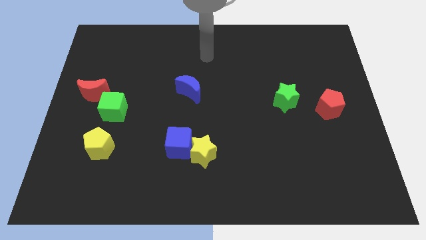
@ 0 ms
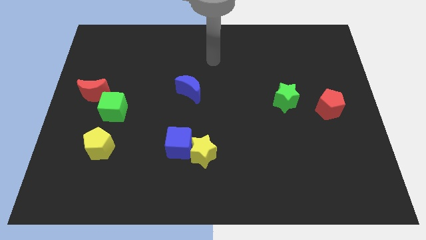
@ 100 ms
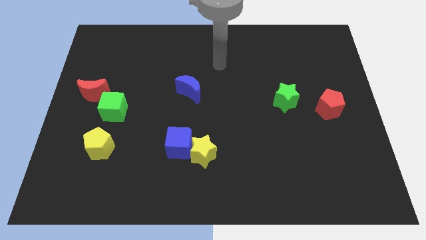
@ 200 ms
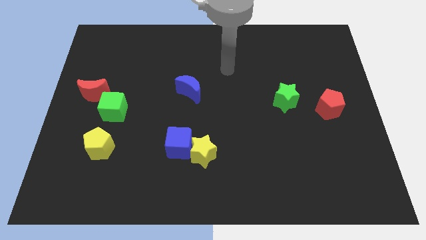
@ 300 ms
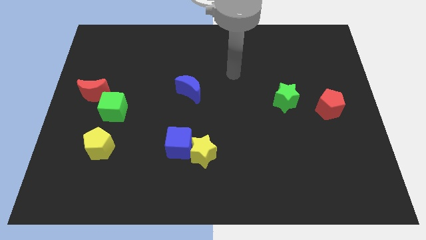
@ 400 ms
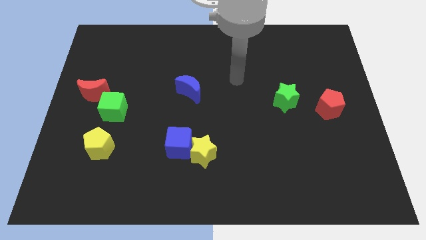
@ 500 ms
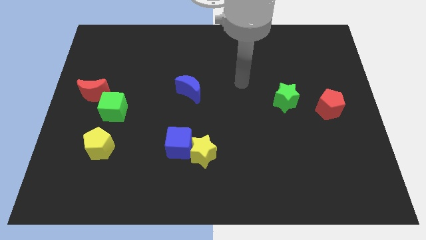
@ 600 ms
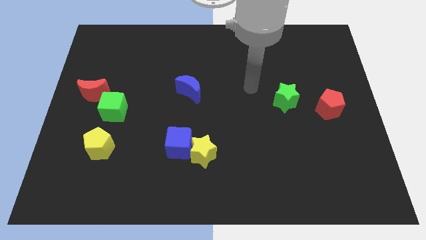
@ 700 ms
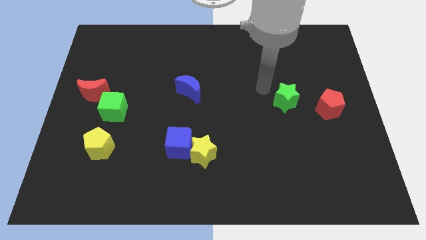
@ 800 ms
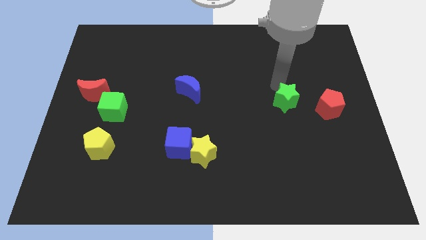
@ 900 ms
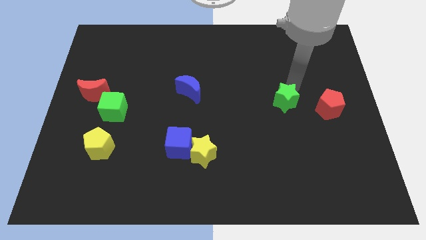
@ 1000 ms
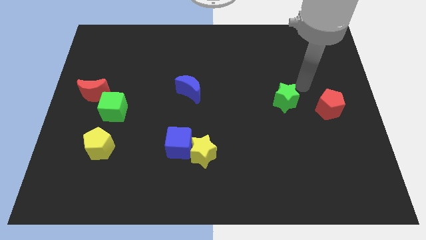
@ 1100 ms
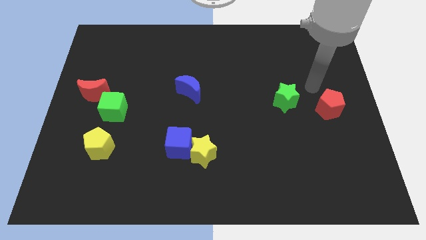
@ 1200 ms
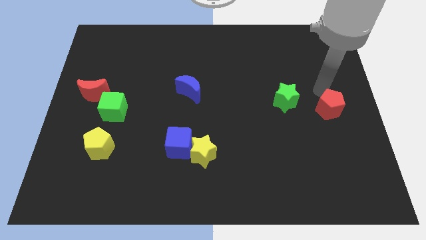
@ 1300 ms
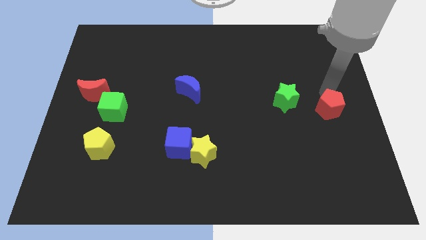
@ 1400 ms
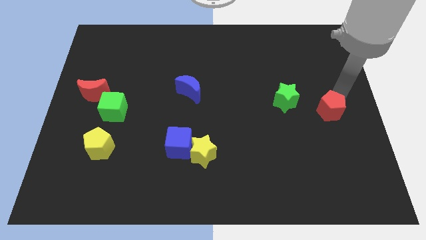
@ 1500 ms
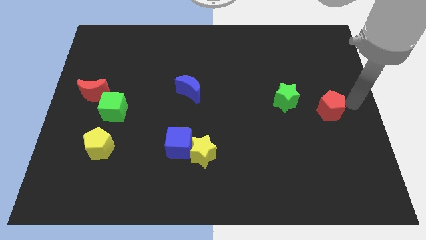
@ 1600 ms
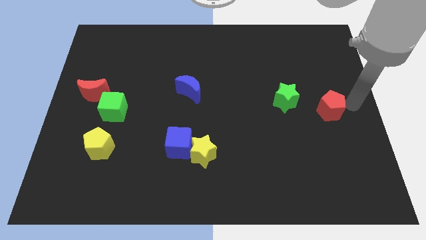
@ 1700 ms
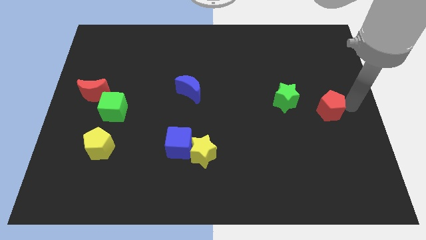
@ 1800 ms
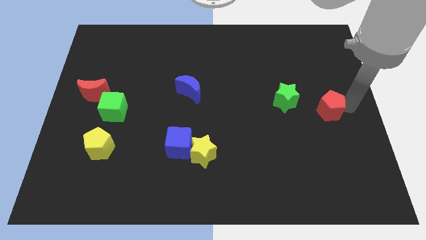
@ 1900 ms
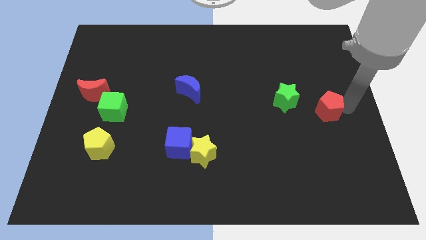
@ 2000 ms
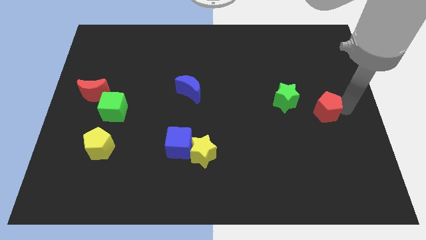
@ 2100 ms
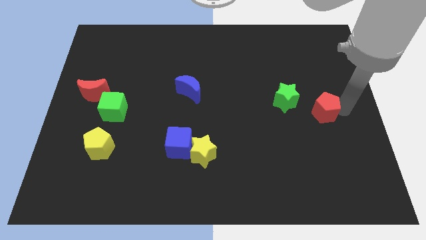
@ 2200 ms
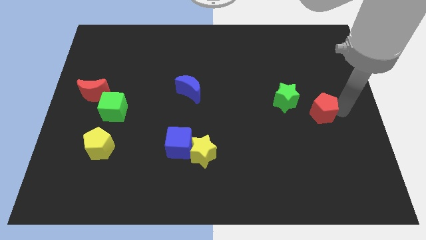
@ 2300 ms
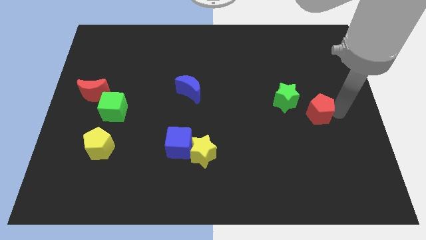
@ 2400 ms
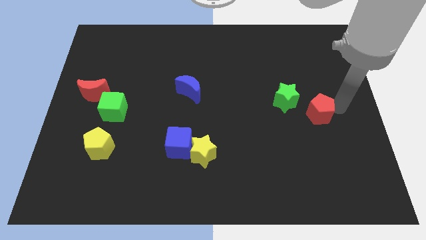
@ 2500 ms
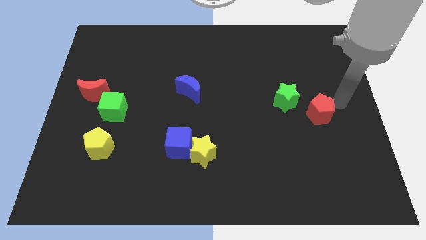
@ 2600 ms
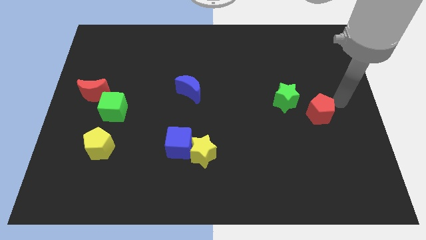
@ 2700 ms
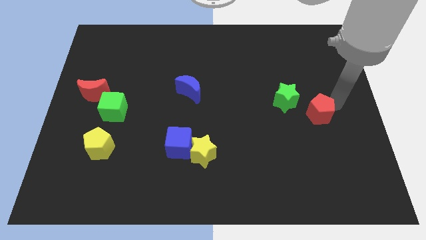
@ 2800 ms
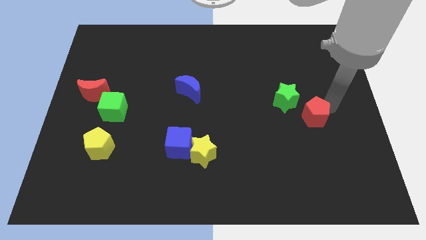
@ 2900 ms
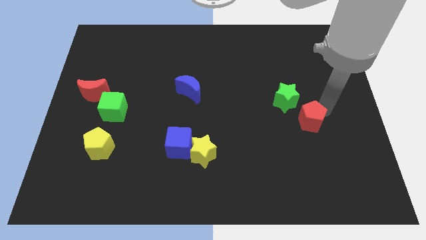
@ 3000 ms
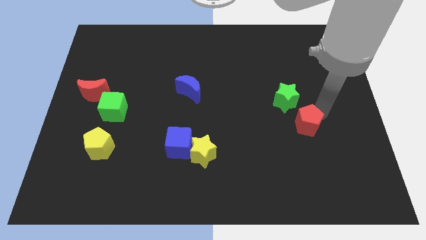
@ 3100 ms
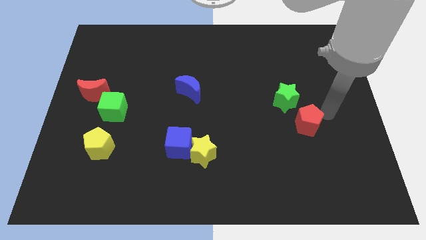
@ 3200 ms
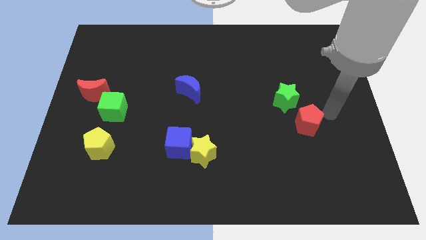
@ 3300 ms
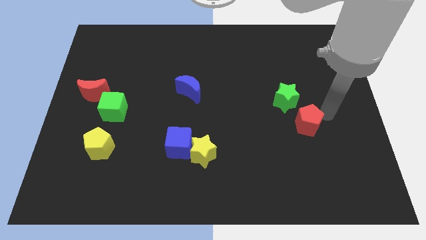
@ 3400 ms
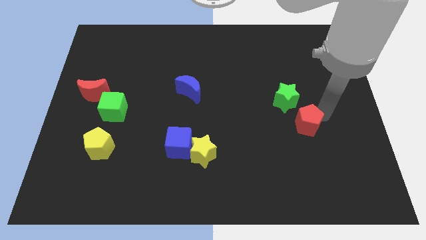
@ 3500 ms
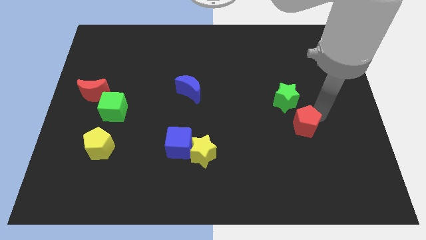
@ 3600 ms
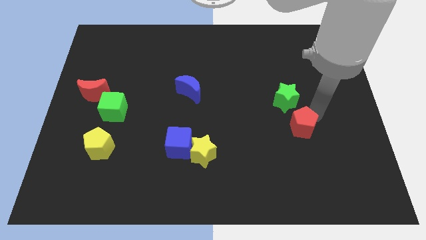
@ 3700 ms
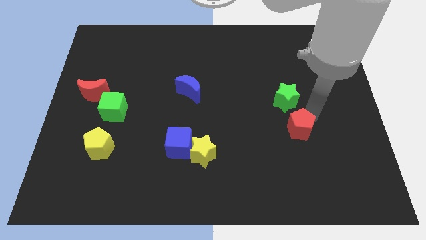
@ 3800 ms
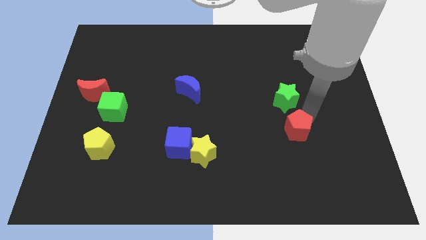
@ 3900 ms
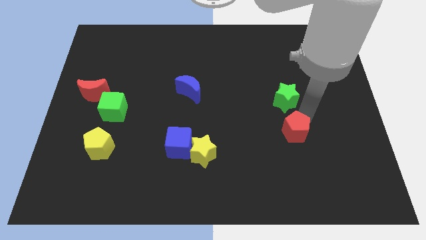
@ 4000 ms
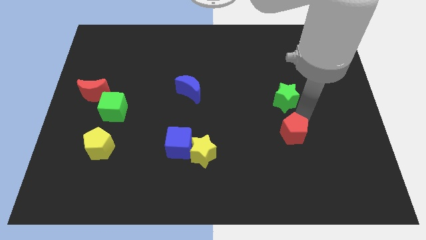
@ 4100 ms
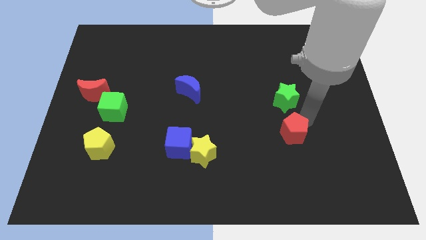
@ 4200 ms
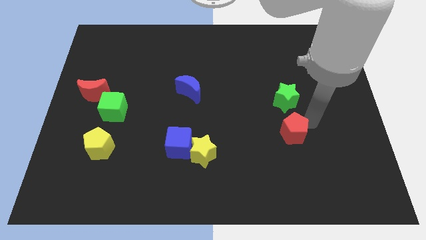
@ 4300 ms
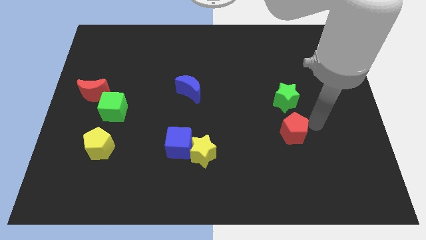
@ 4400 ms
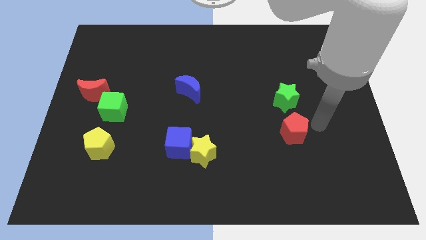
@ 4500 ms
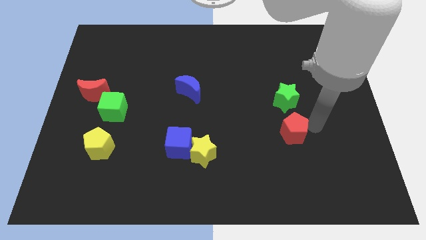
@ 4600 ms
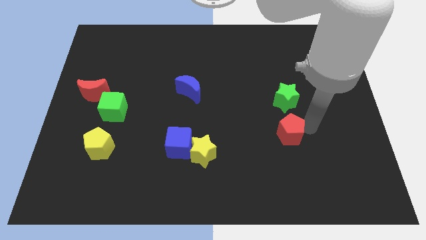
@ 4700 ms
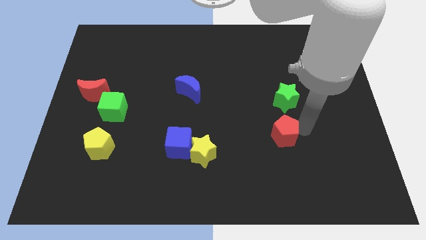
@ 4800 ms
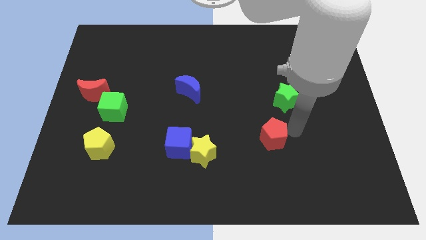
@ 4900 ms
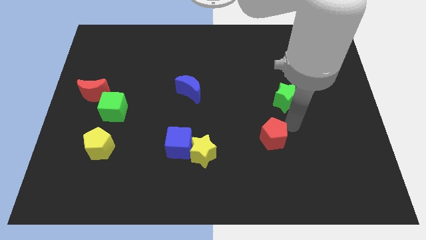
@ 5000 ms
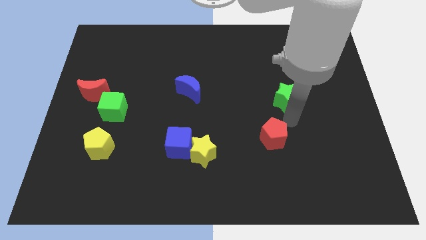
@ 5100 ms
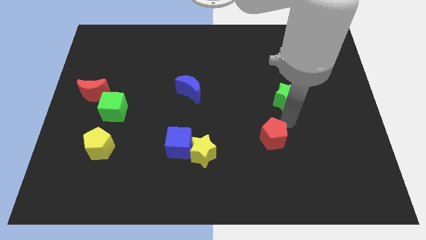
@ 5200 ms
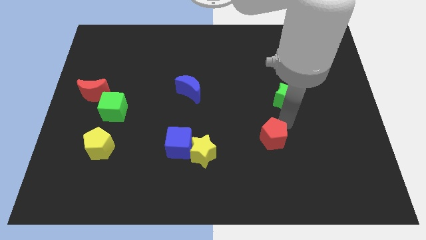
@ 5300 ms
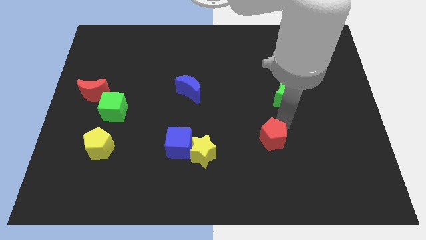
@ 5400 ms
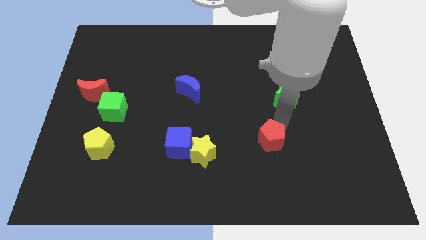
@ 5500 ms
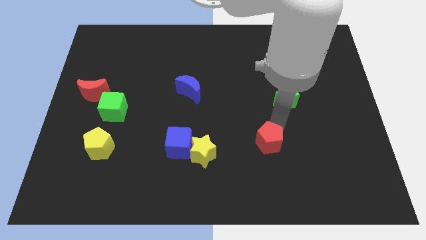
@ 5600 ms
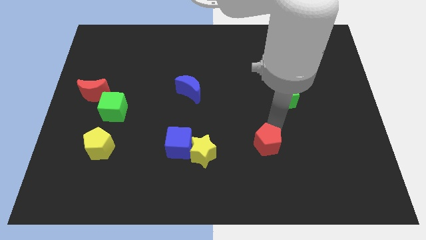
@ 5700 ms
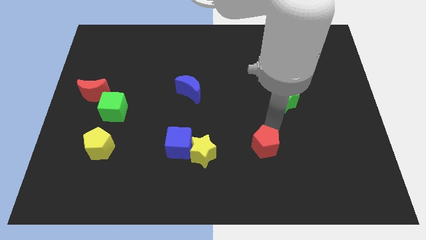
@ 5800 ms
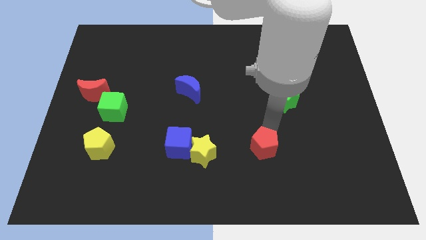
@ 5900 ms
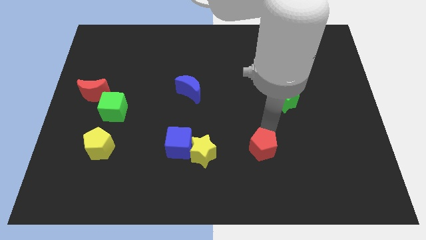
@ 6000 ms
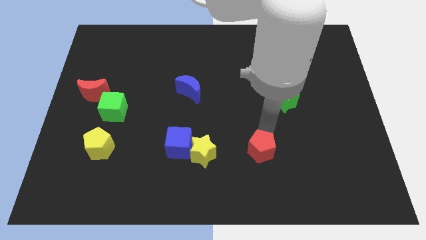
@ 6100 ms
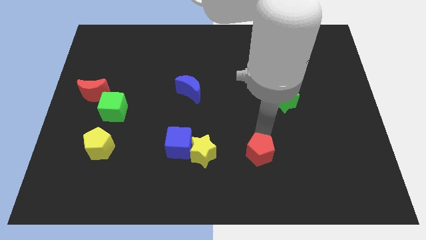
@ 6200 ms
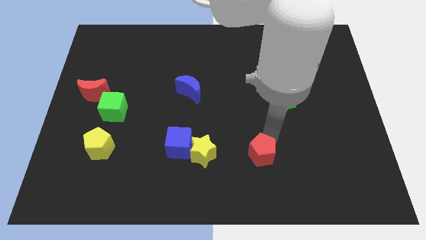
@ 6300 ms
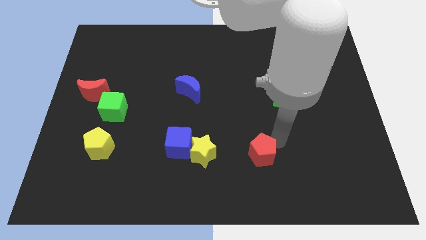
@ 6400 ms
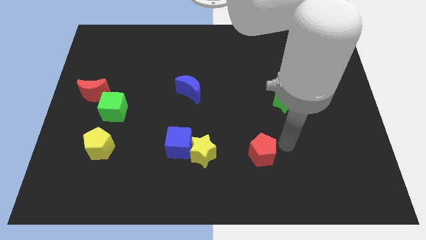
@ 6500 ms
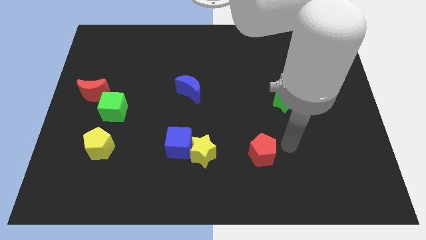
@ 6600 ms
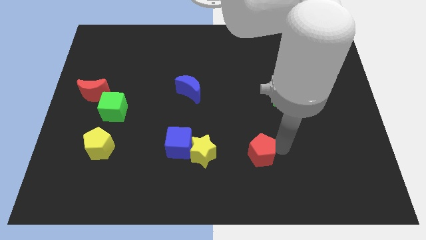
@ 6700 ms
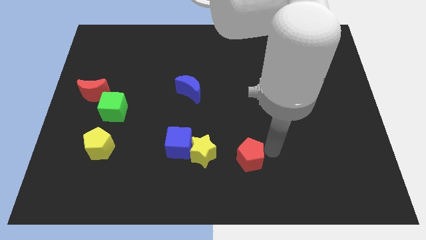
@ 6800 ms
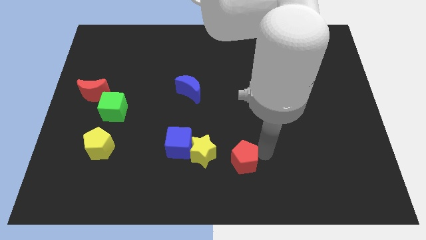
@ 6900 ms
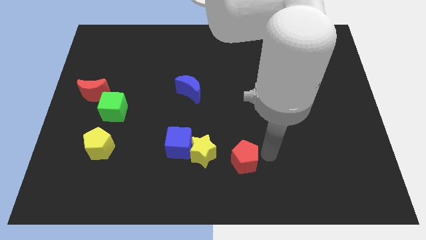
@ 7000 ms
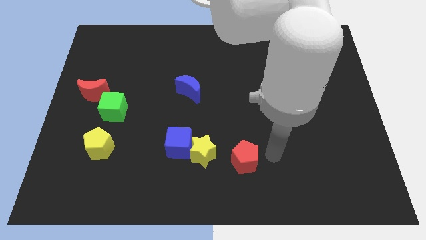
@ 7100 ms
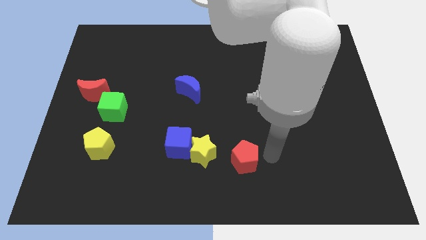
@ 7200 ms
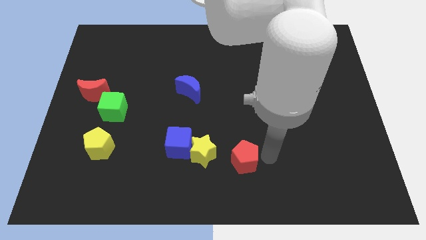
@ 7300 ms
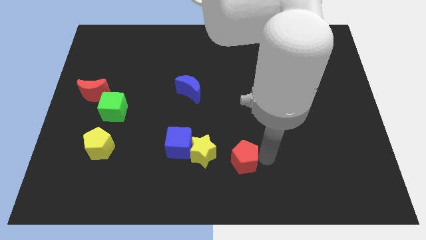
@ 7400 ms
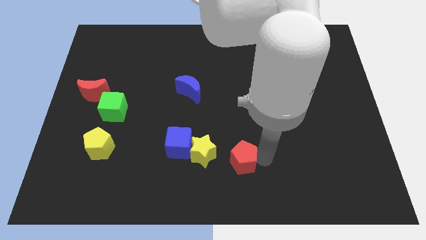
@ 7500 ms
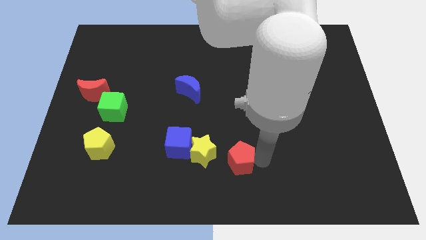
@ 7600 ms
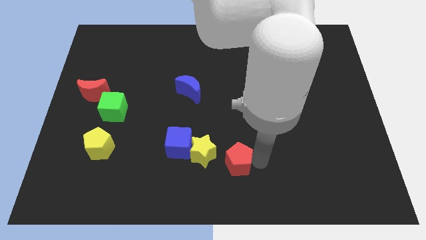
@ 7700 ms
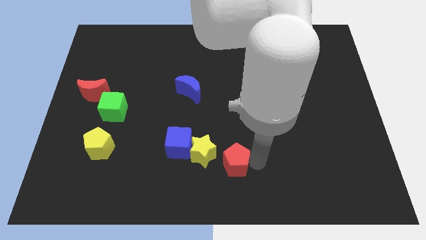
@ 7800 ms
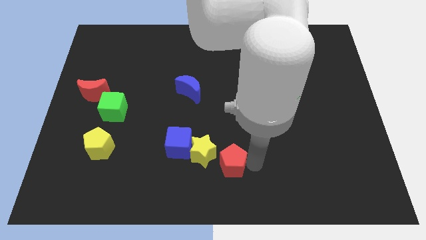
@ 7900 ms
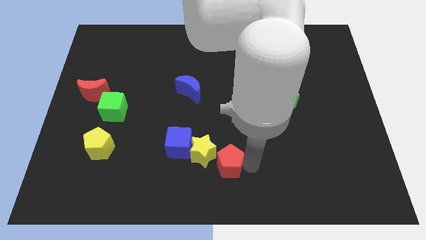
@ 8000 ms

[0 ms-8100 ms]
slide the red pentagon diagonally down and to the right of the blue cube
